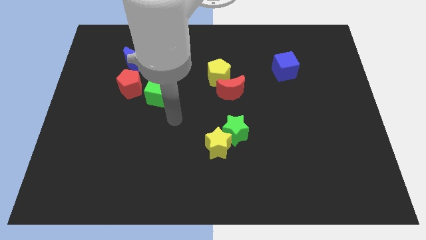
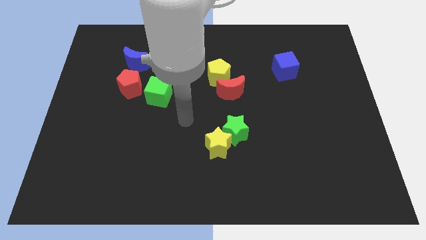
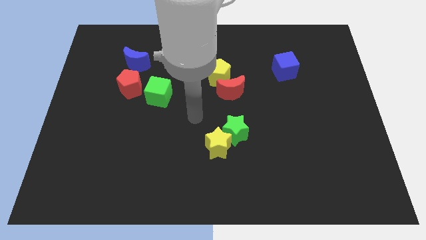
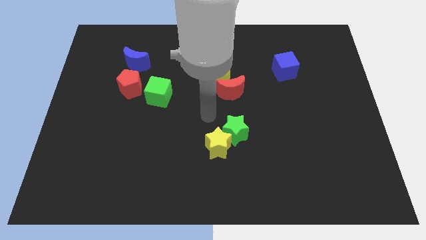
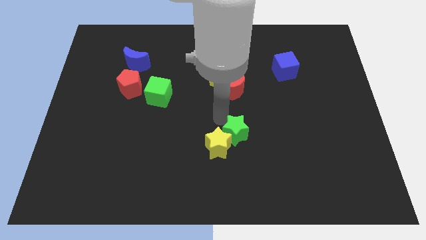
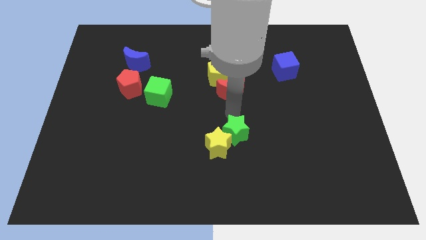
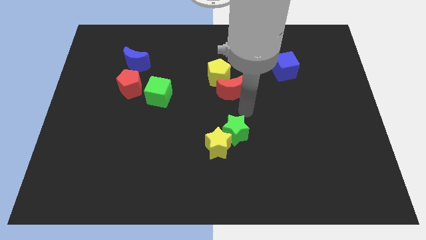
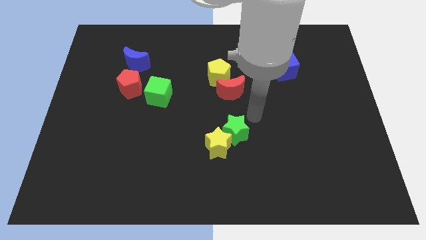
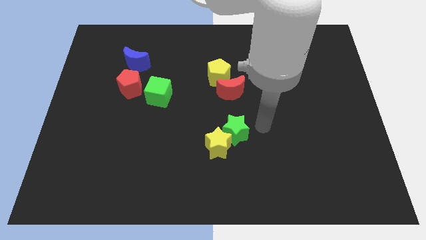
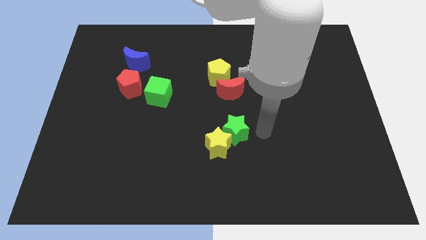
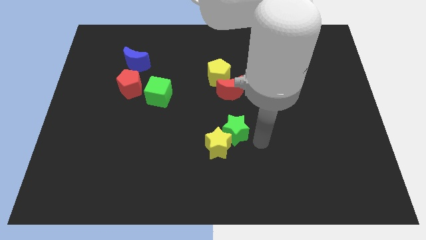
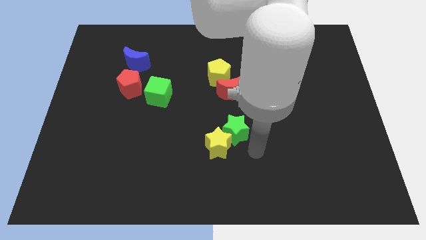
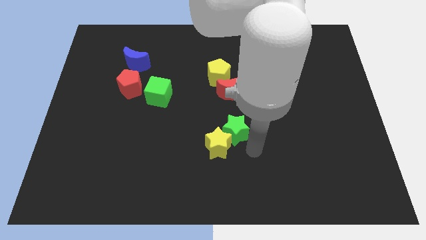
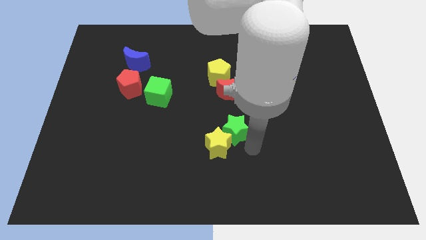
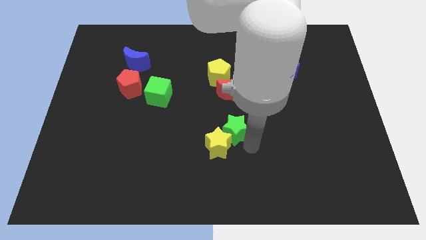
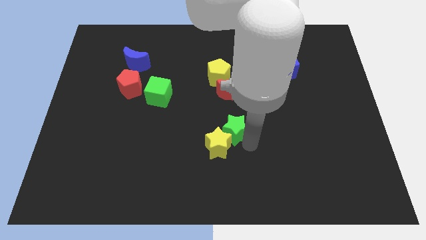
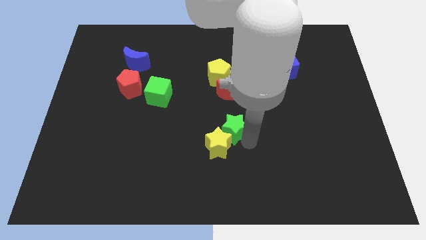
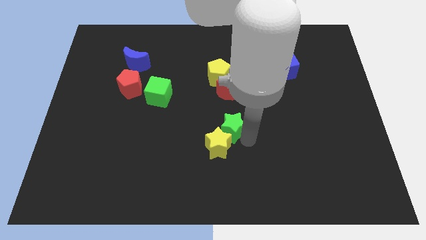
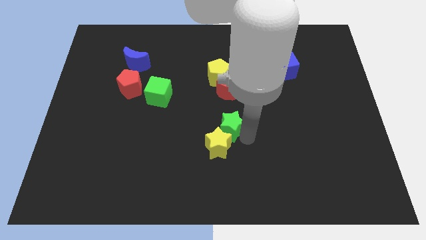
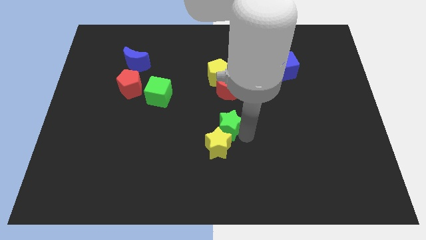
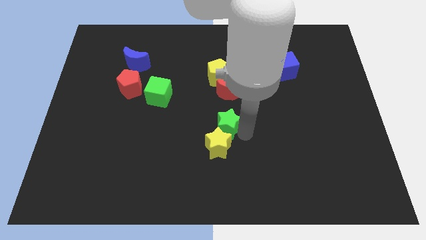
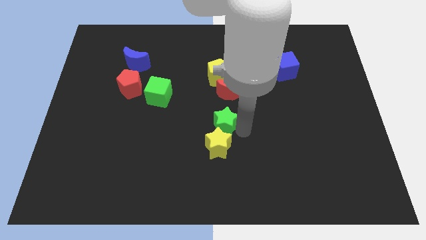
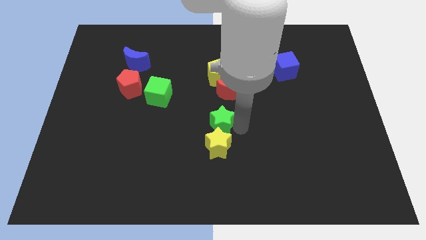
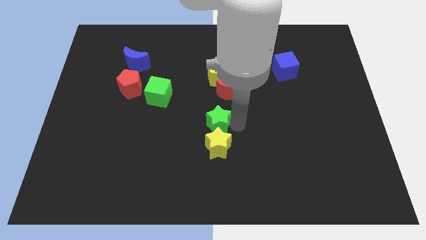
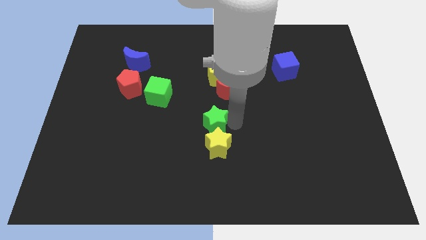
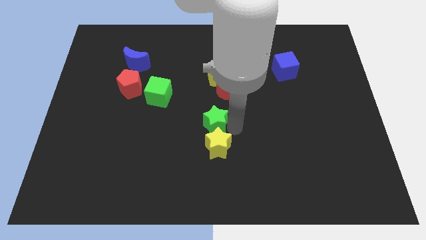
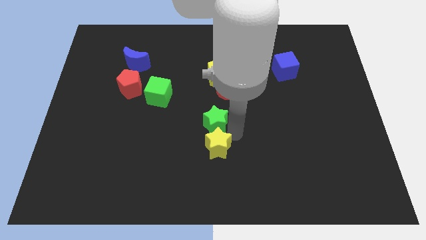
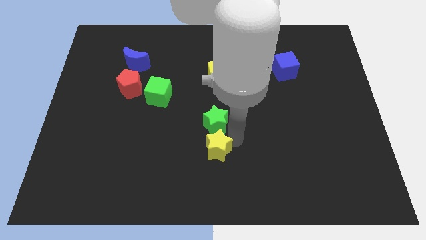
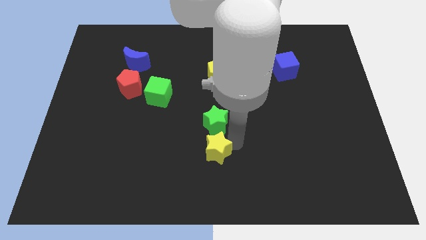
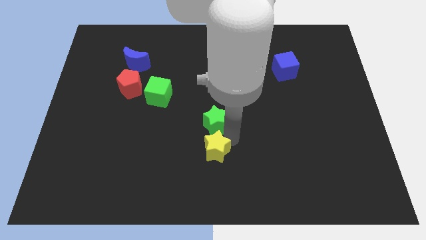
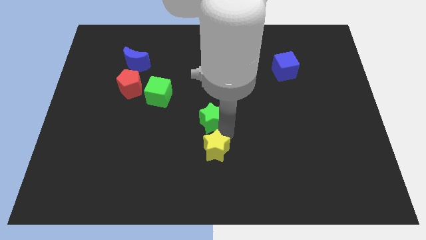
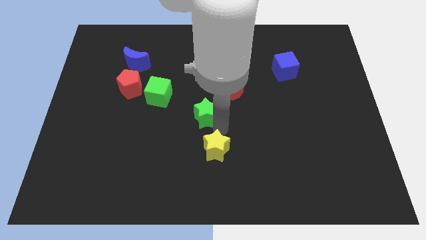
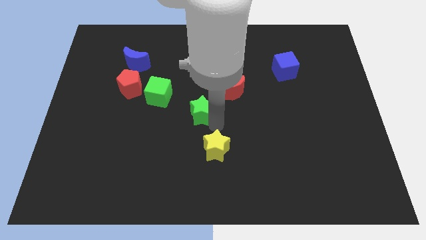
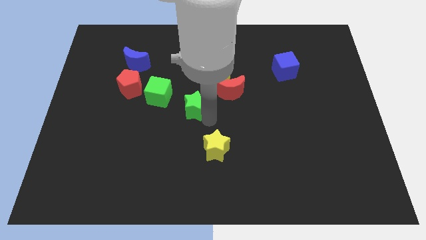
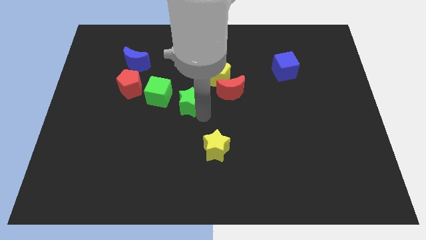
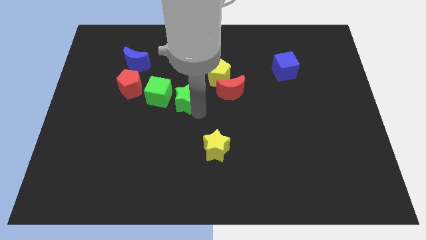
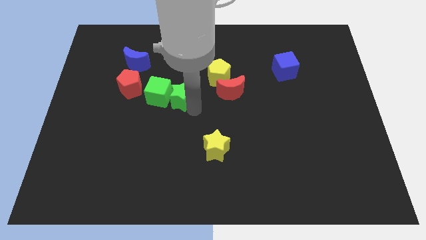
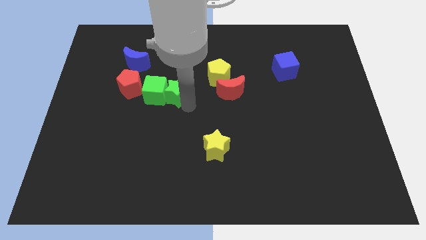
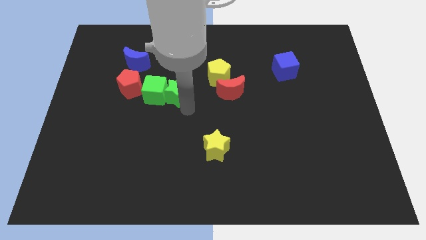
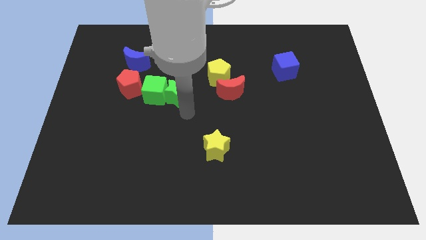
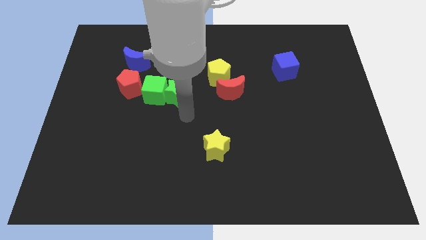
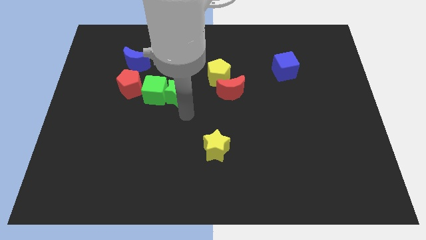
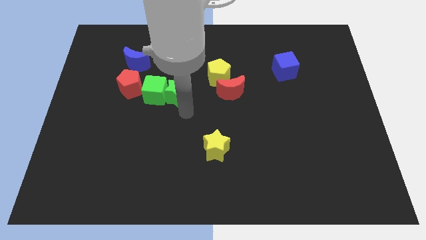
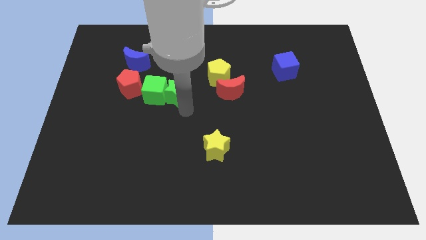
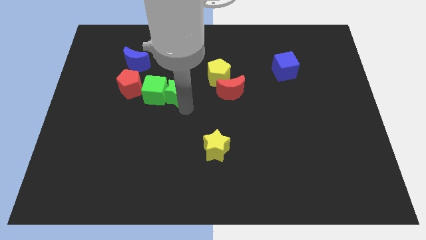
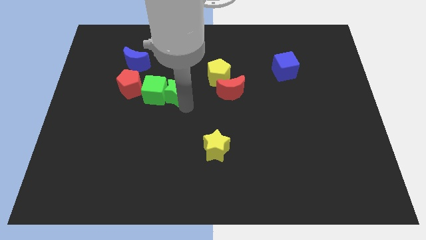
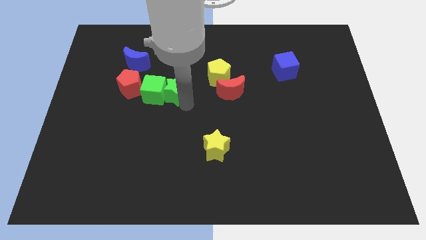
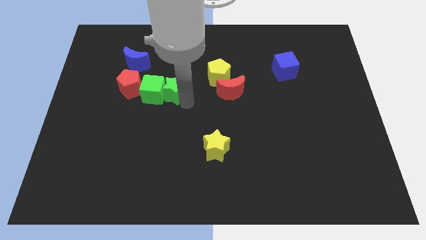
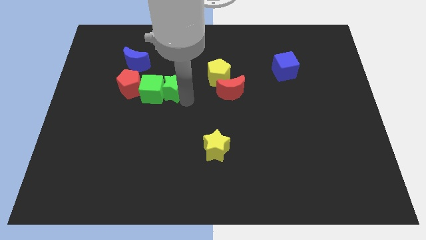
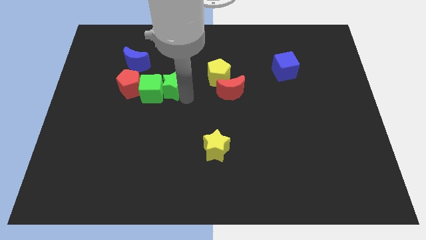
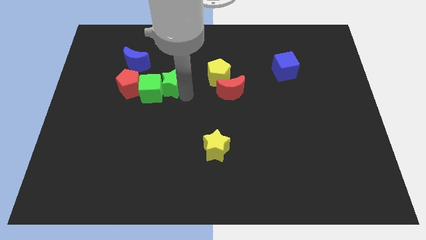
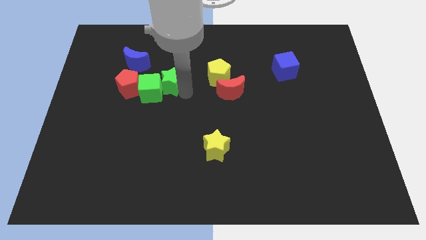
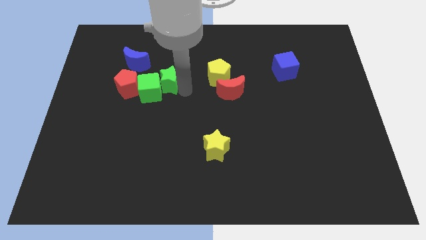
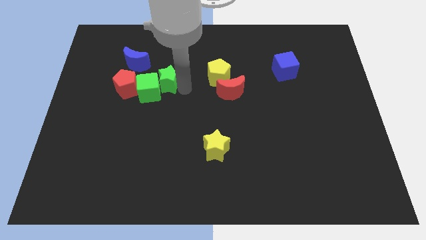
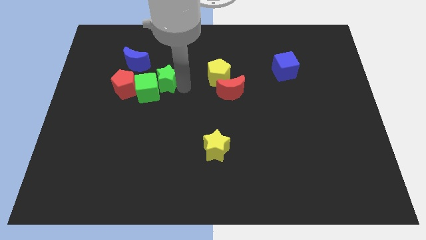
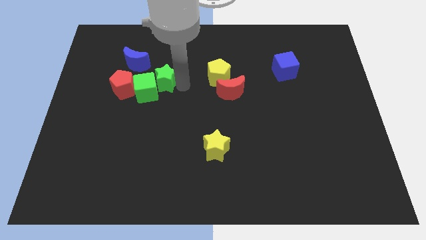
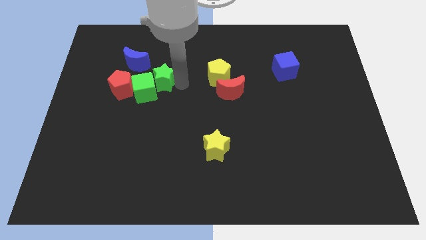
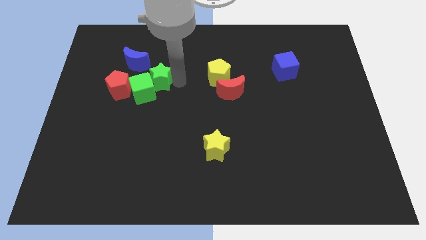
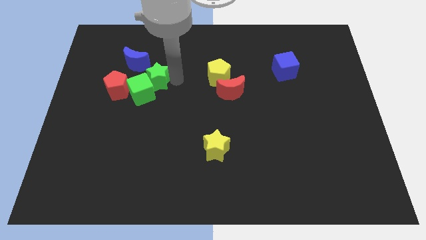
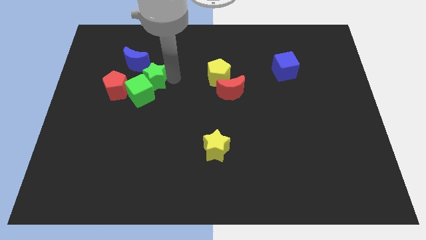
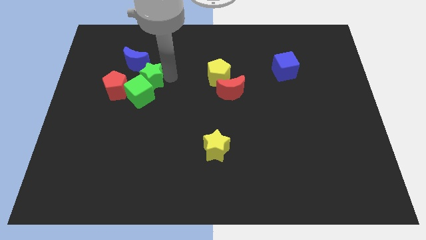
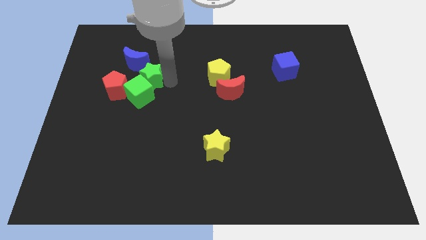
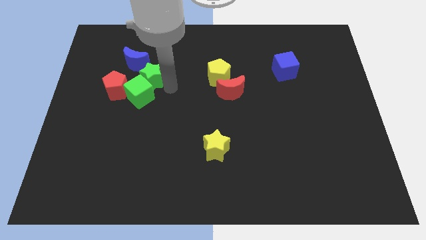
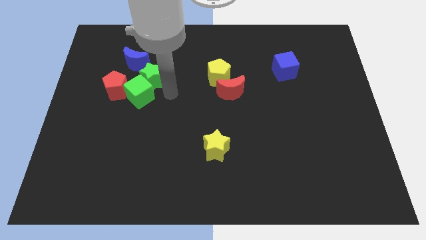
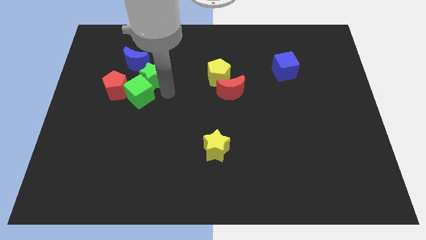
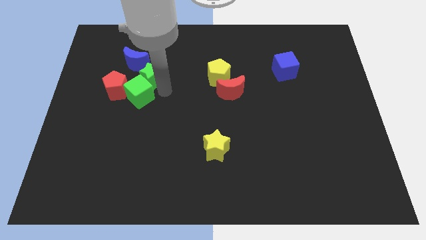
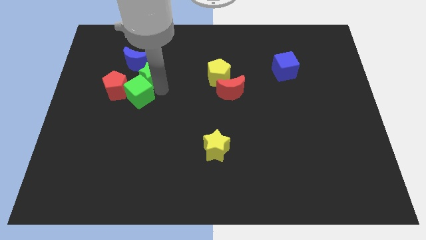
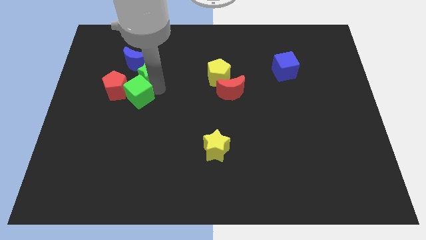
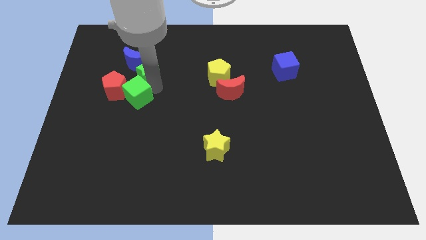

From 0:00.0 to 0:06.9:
move the green star to the blue moon

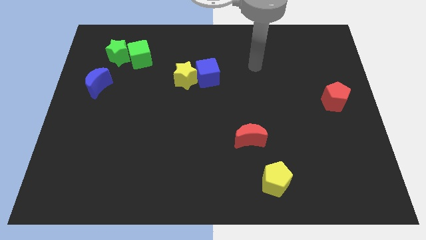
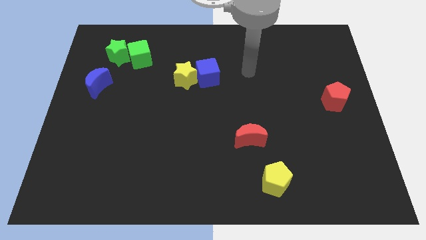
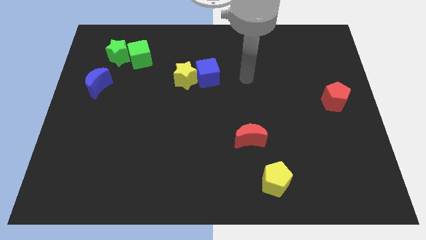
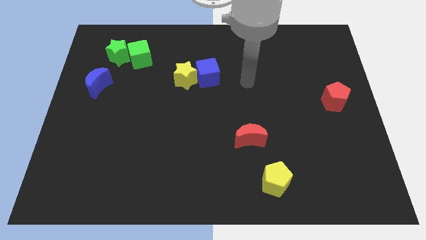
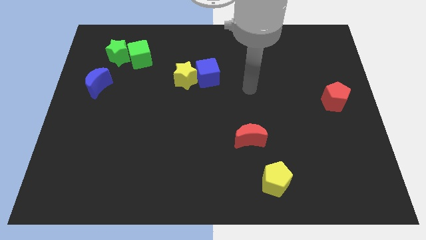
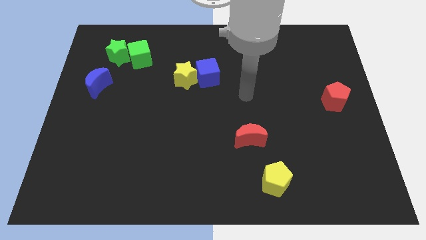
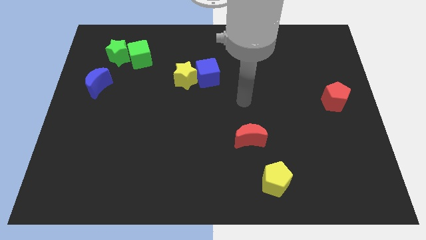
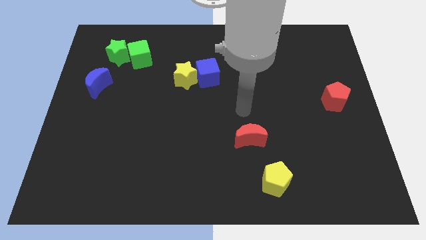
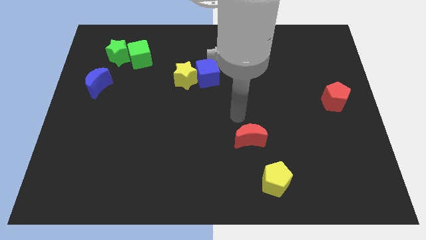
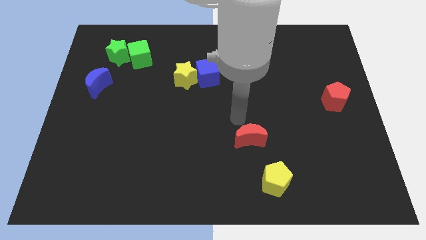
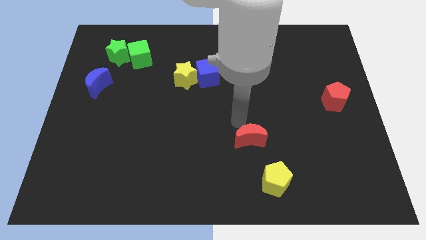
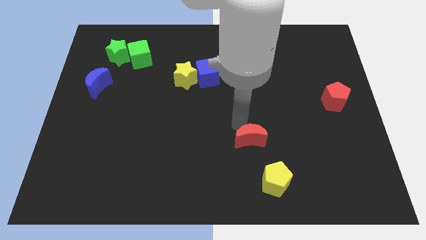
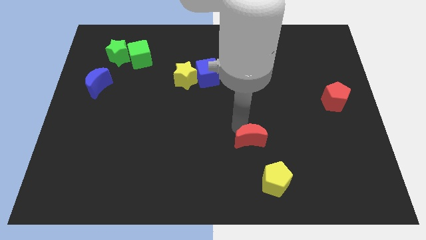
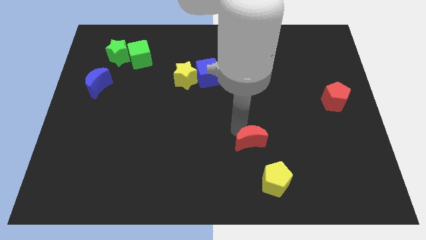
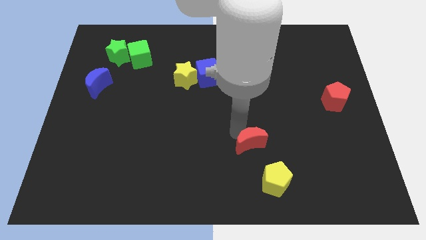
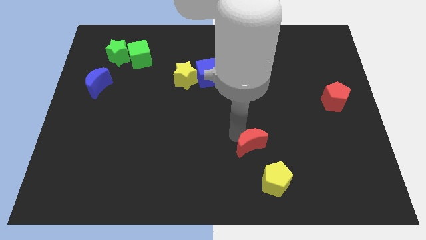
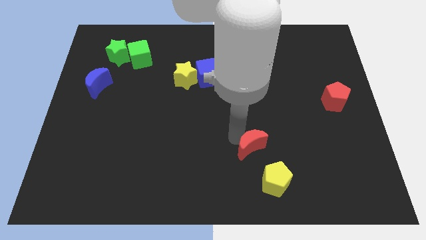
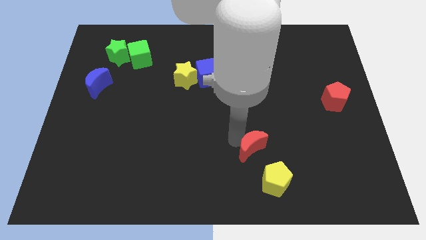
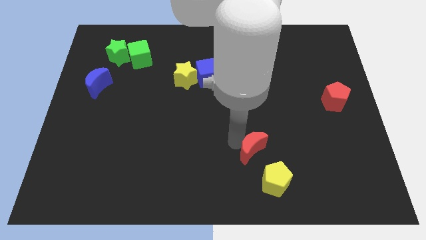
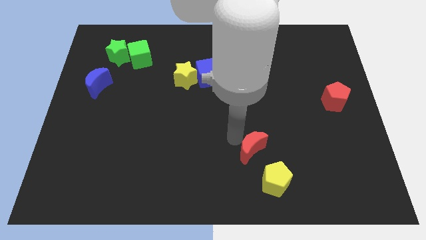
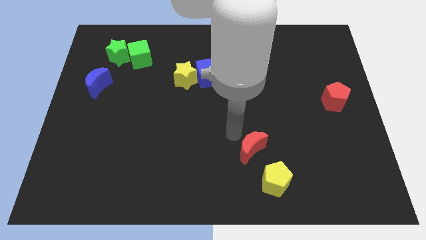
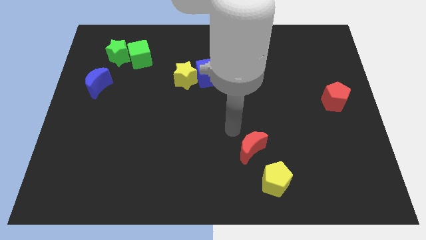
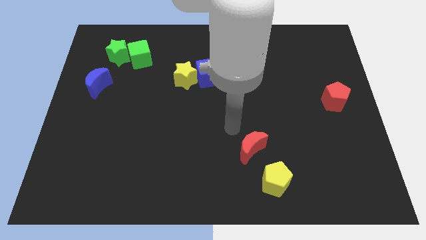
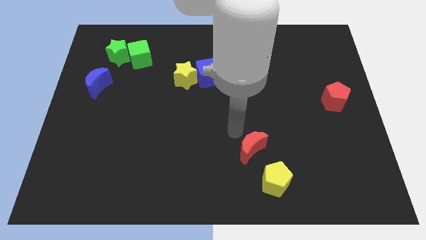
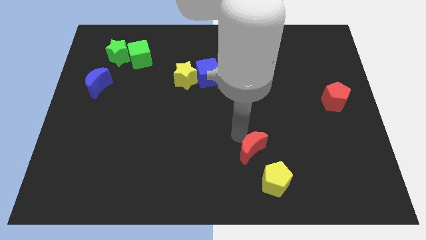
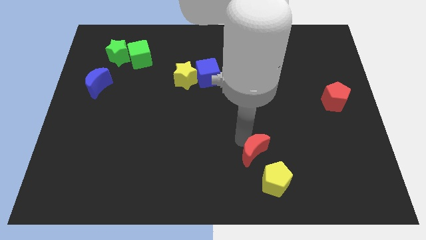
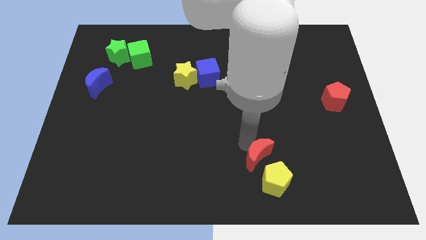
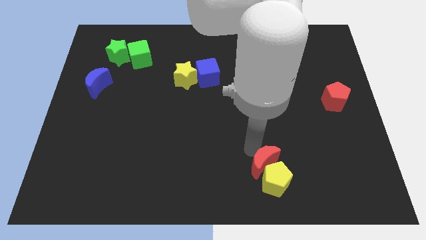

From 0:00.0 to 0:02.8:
push the red moon towards the yellow pentagon
